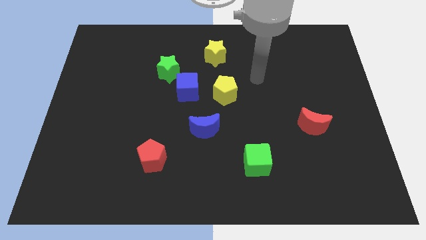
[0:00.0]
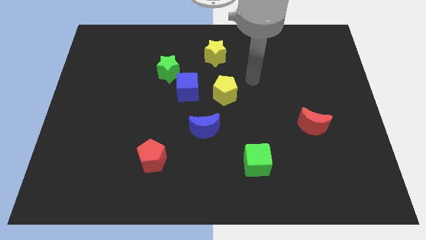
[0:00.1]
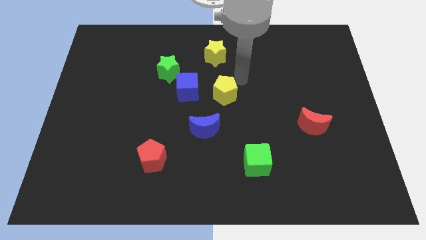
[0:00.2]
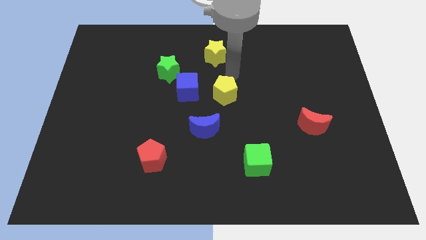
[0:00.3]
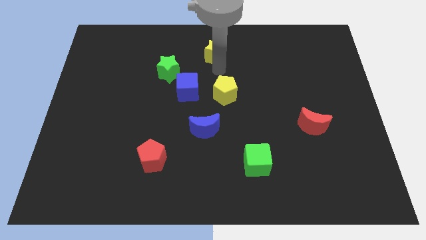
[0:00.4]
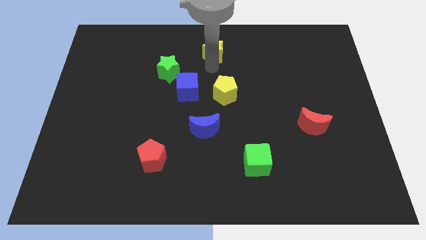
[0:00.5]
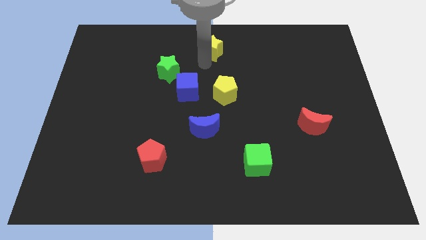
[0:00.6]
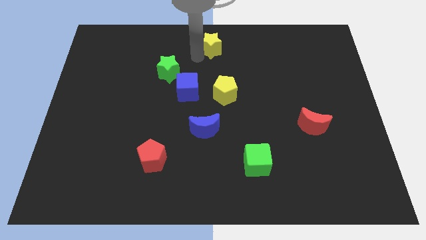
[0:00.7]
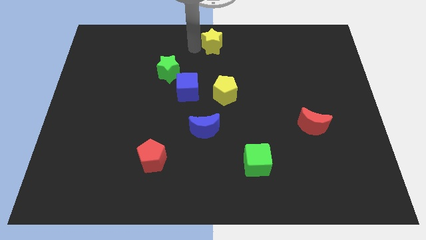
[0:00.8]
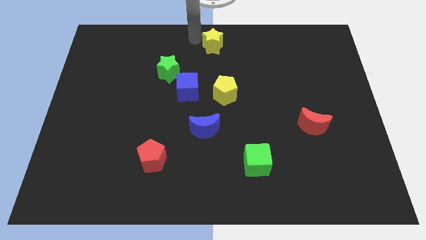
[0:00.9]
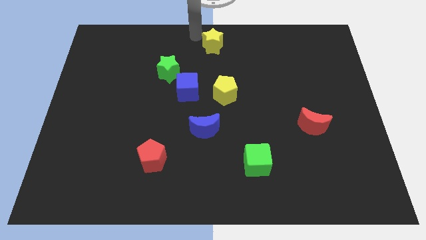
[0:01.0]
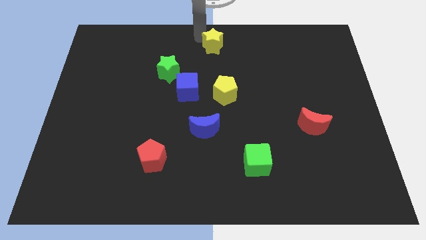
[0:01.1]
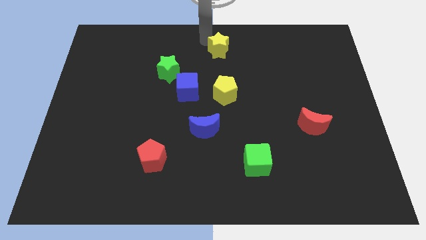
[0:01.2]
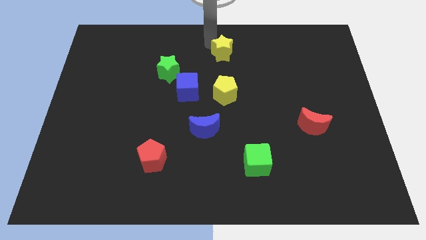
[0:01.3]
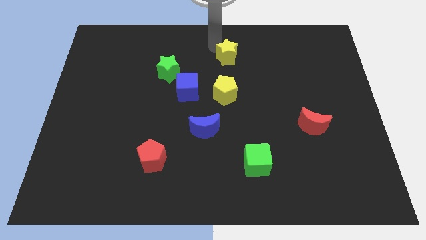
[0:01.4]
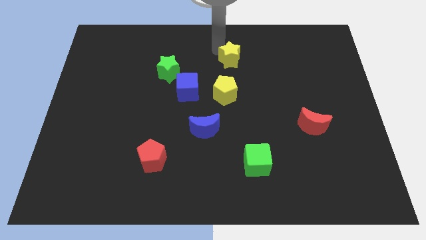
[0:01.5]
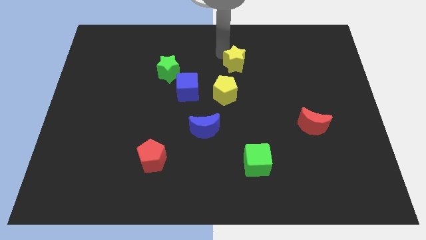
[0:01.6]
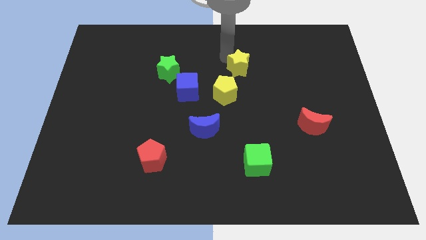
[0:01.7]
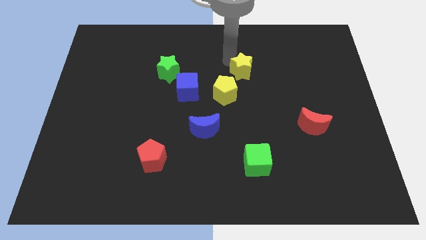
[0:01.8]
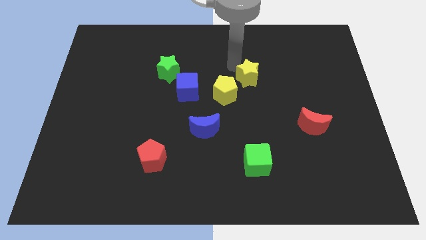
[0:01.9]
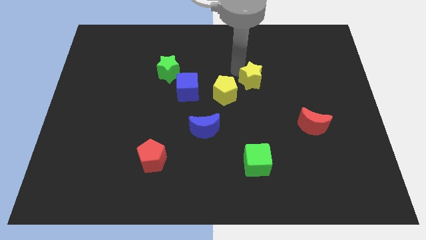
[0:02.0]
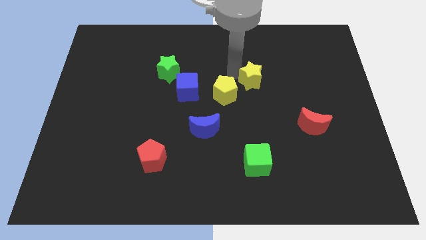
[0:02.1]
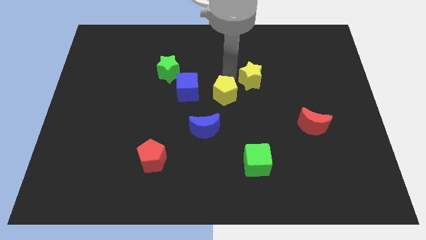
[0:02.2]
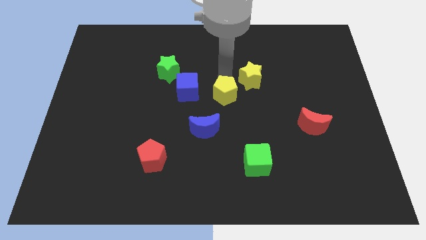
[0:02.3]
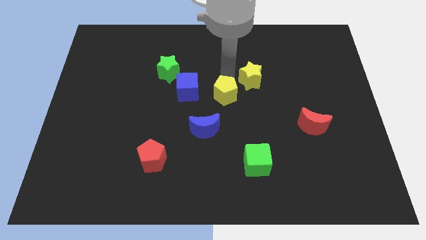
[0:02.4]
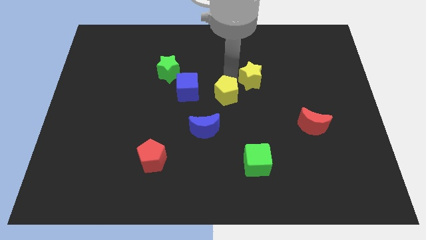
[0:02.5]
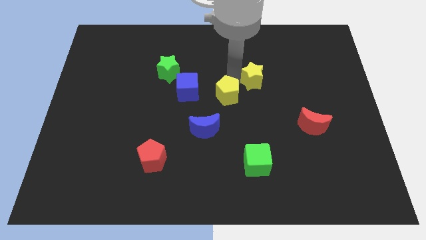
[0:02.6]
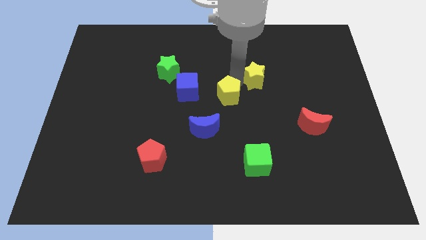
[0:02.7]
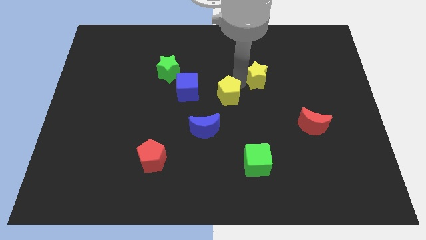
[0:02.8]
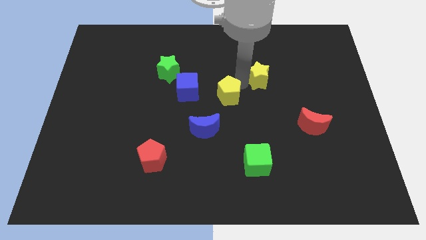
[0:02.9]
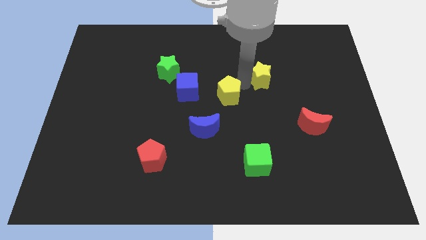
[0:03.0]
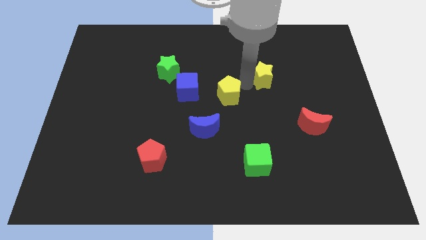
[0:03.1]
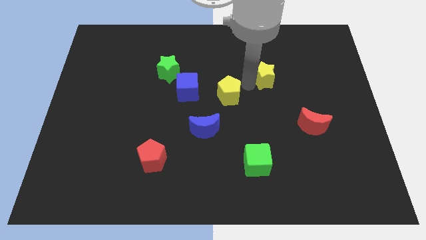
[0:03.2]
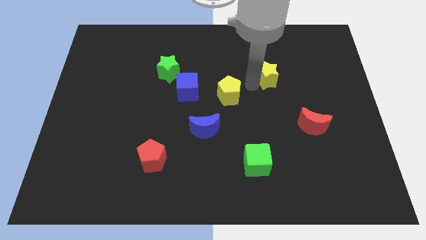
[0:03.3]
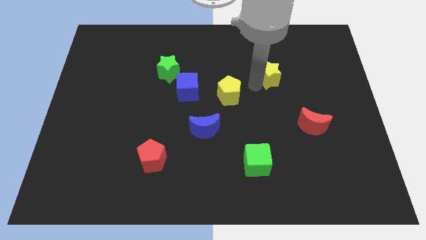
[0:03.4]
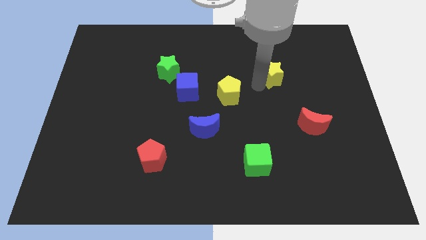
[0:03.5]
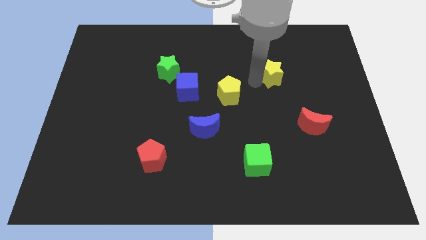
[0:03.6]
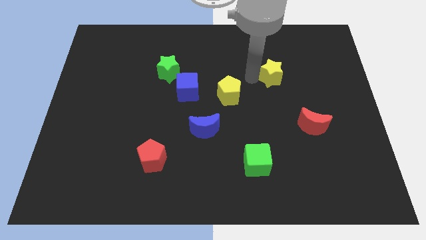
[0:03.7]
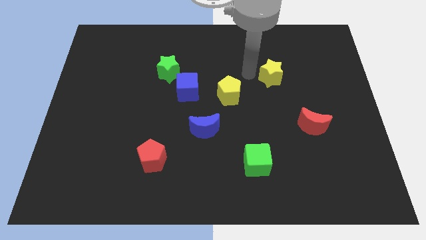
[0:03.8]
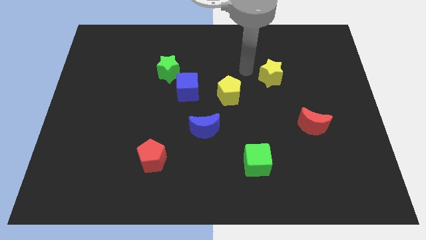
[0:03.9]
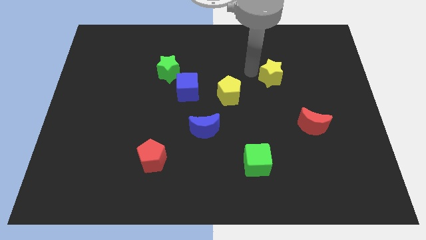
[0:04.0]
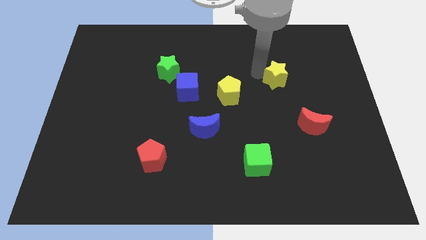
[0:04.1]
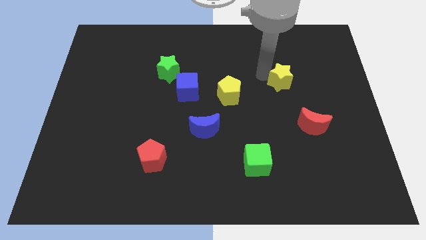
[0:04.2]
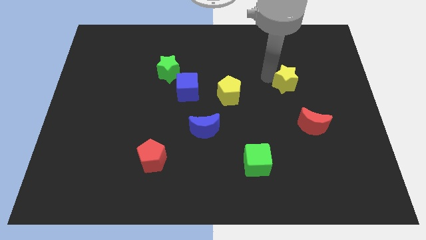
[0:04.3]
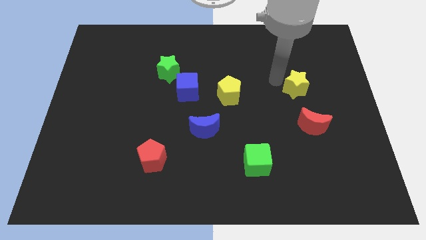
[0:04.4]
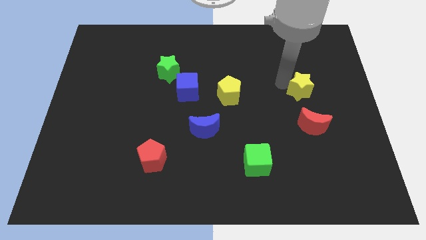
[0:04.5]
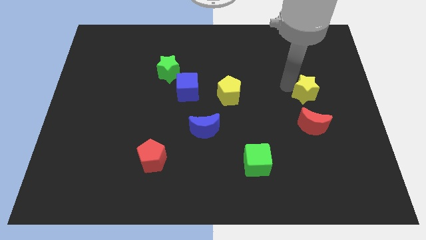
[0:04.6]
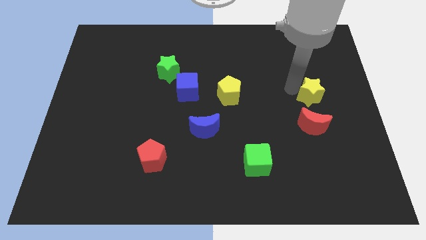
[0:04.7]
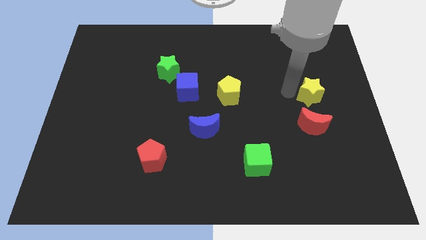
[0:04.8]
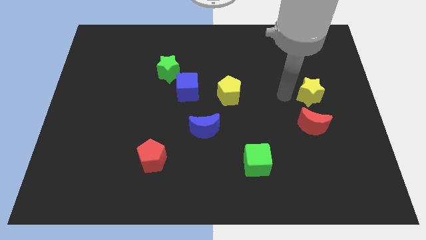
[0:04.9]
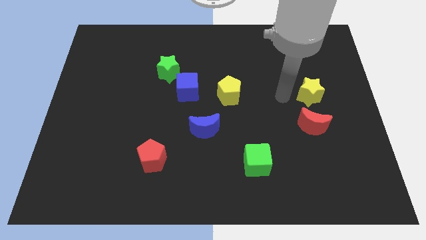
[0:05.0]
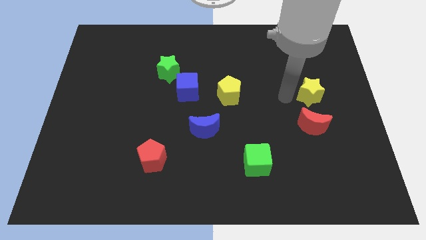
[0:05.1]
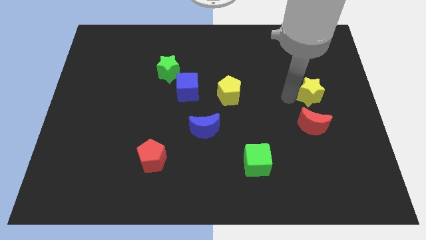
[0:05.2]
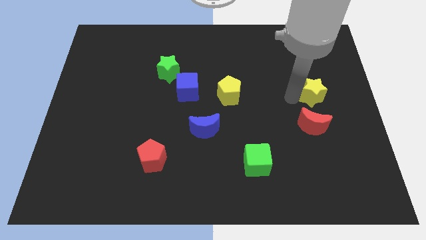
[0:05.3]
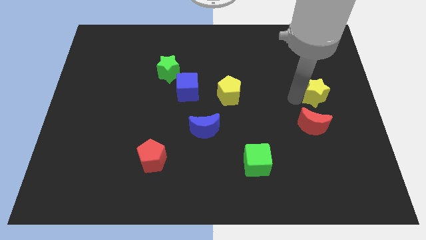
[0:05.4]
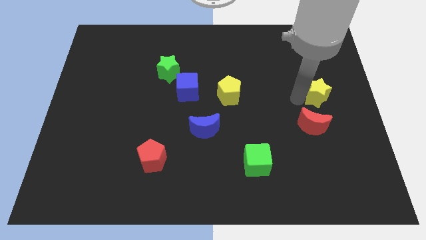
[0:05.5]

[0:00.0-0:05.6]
move the yellow star to the right side
